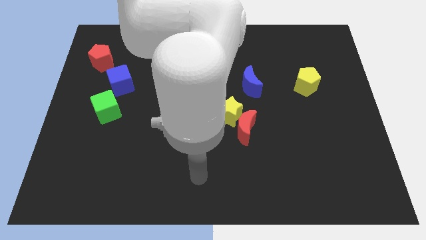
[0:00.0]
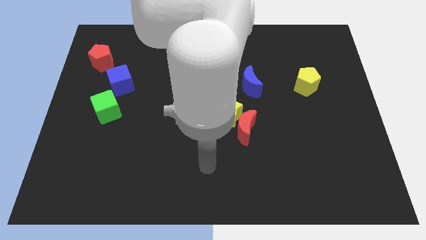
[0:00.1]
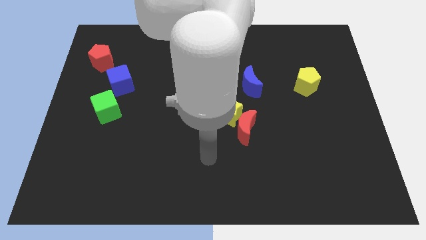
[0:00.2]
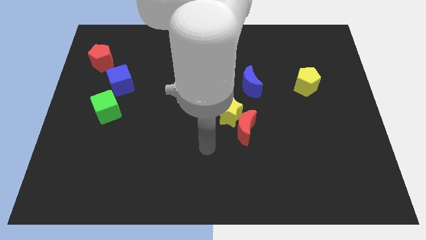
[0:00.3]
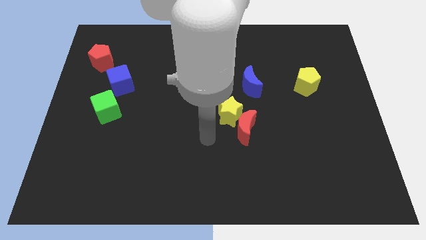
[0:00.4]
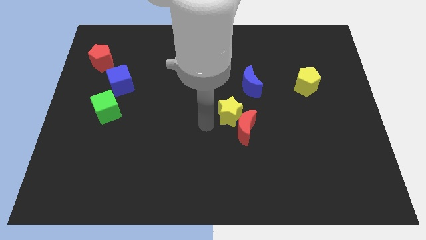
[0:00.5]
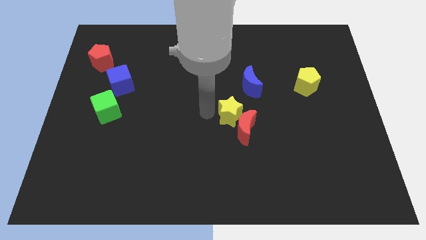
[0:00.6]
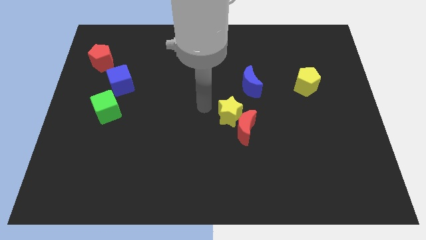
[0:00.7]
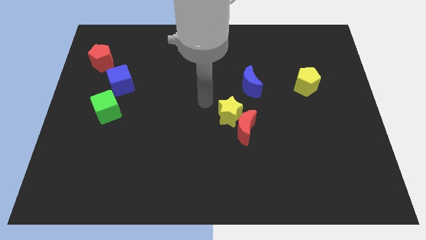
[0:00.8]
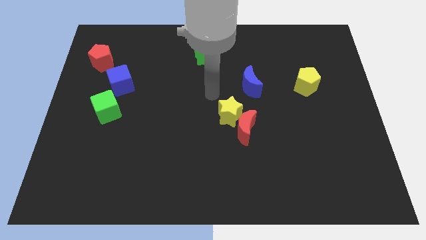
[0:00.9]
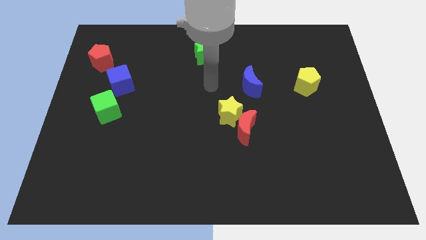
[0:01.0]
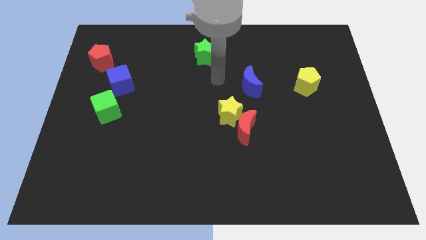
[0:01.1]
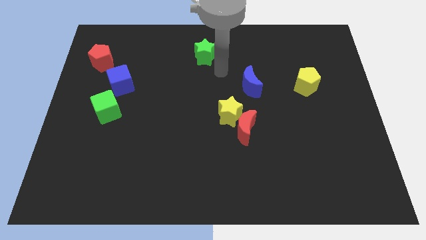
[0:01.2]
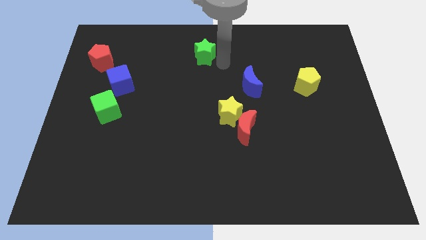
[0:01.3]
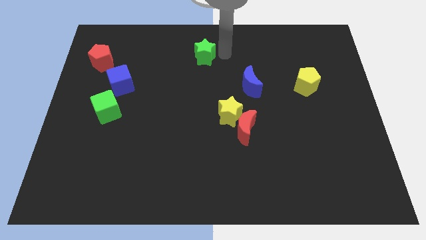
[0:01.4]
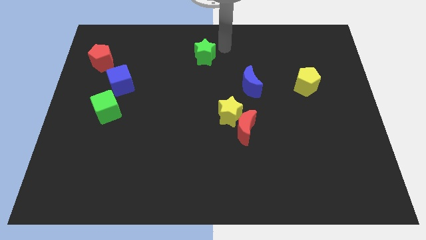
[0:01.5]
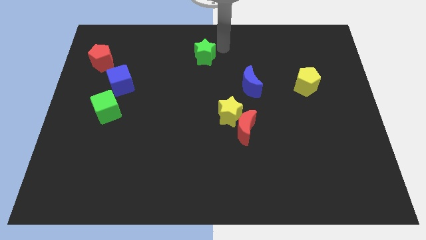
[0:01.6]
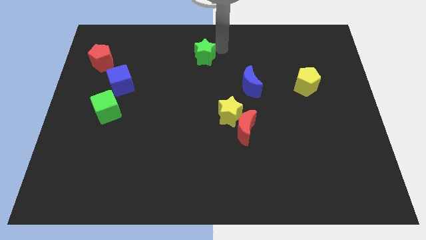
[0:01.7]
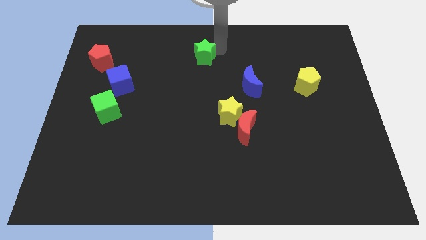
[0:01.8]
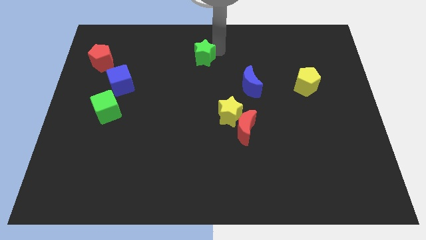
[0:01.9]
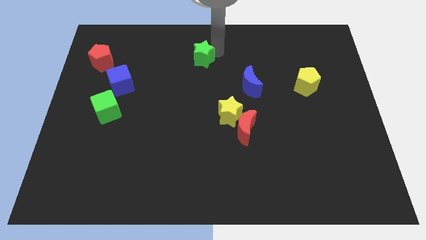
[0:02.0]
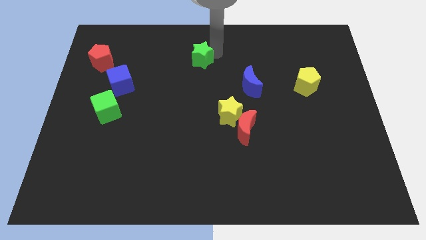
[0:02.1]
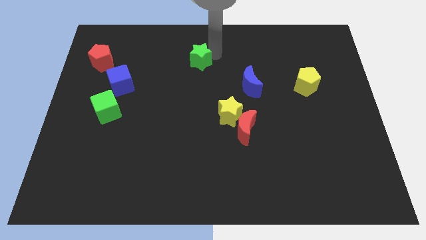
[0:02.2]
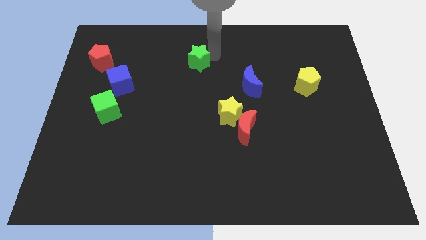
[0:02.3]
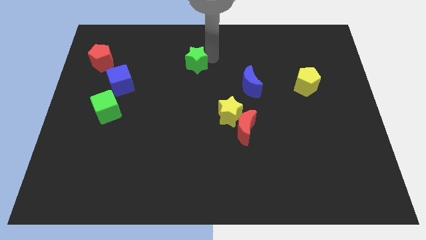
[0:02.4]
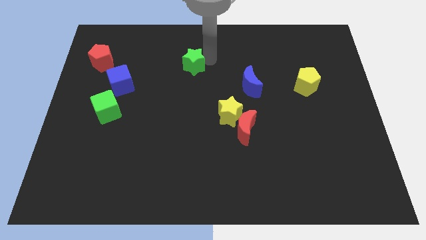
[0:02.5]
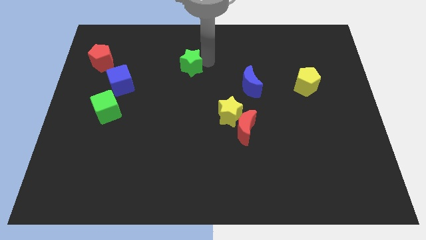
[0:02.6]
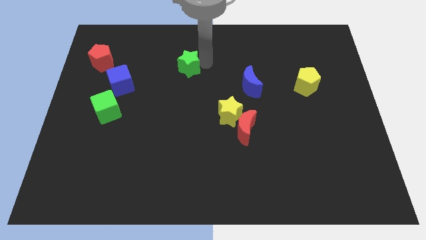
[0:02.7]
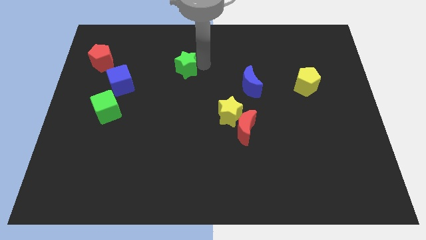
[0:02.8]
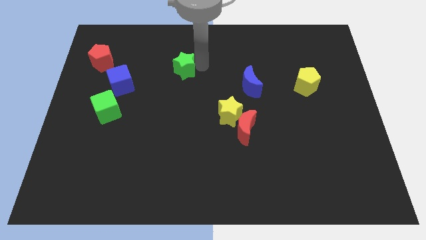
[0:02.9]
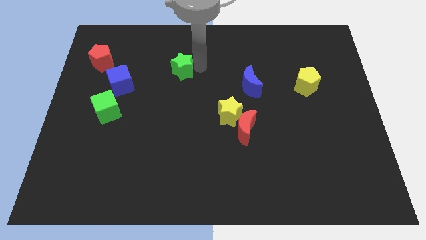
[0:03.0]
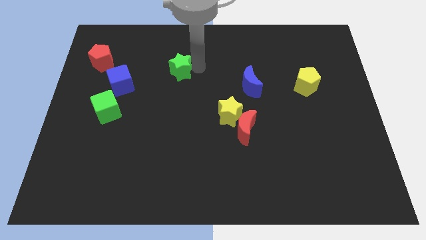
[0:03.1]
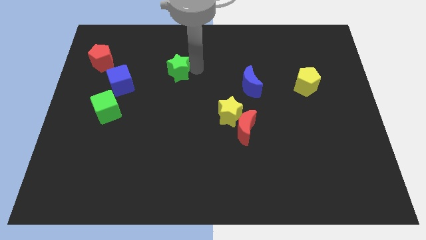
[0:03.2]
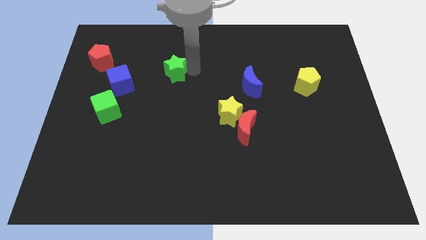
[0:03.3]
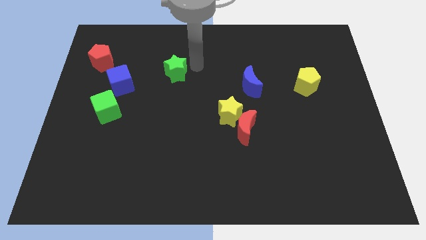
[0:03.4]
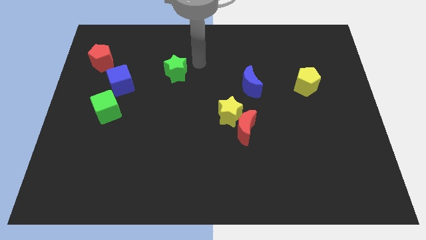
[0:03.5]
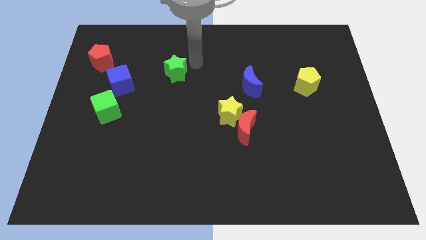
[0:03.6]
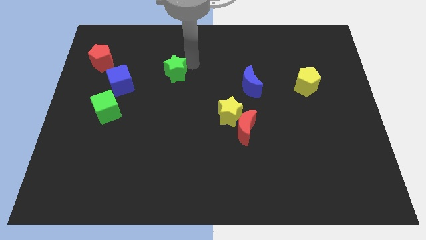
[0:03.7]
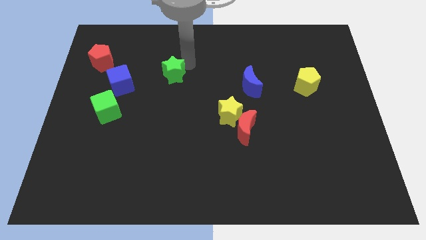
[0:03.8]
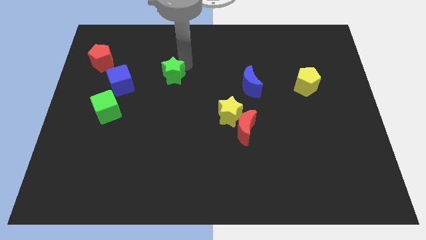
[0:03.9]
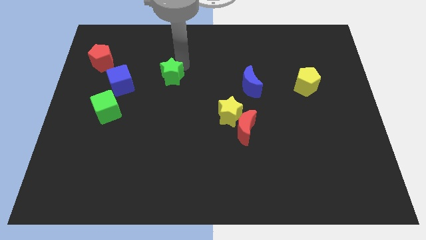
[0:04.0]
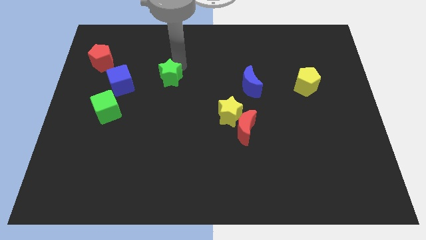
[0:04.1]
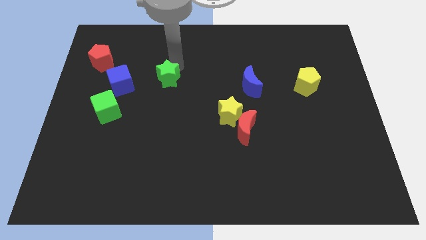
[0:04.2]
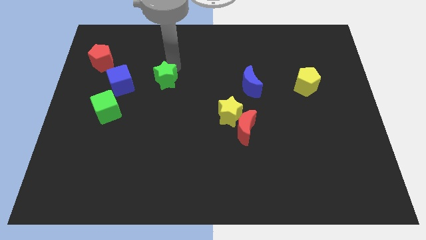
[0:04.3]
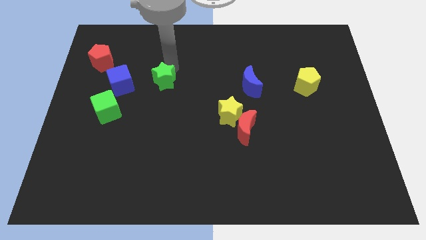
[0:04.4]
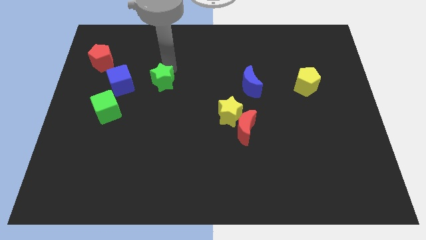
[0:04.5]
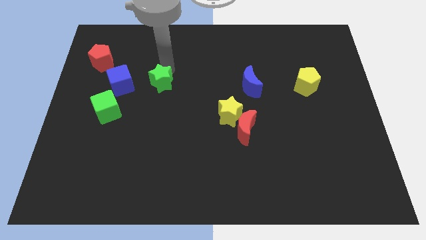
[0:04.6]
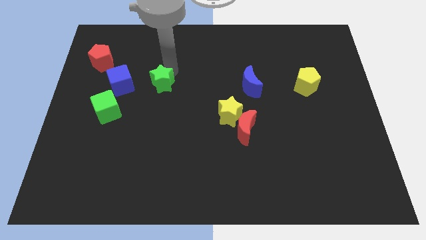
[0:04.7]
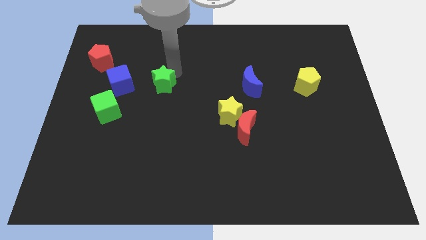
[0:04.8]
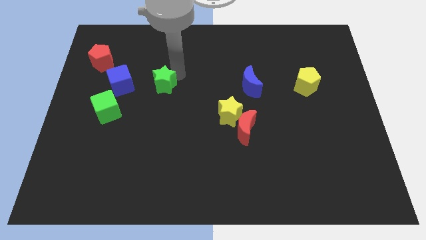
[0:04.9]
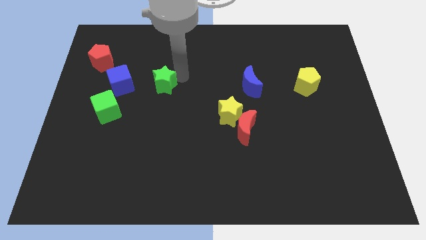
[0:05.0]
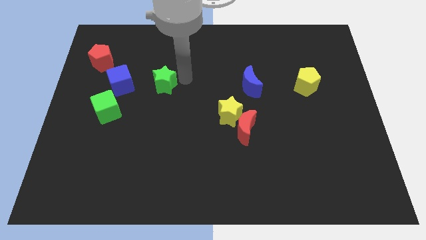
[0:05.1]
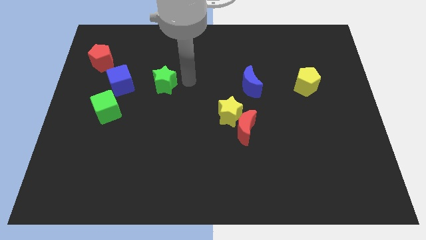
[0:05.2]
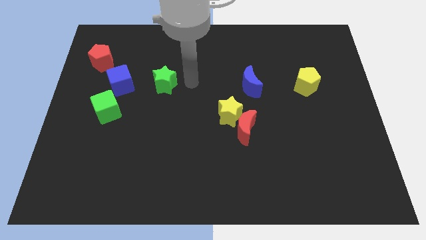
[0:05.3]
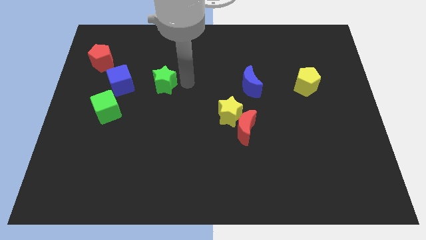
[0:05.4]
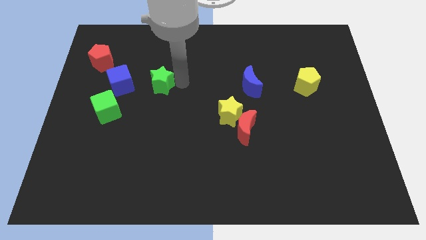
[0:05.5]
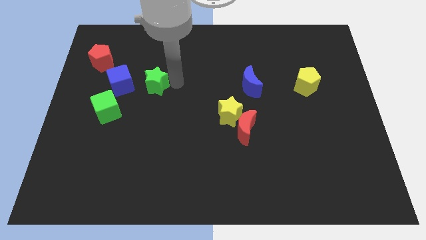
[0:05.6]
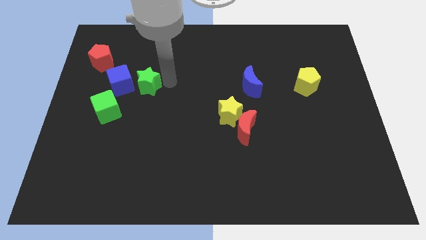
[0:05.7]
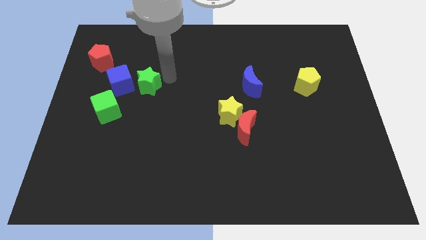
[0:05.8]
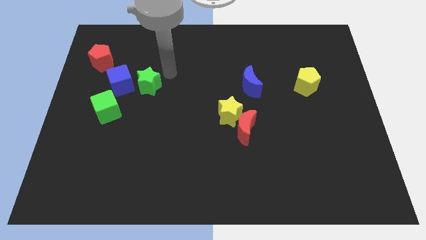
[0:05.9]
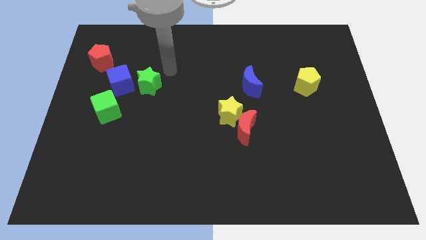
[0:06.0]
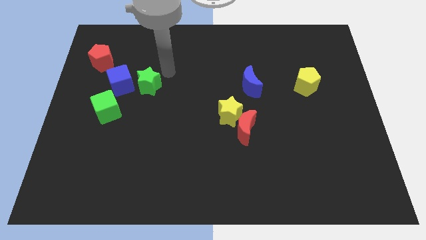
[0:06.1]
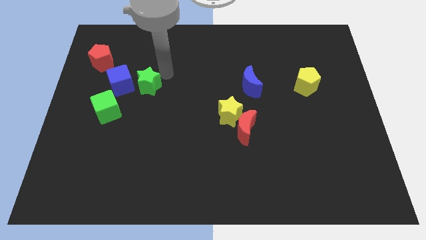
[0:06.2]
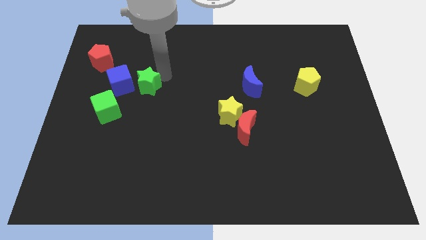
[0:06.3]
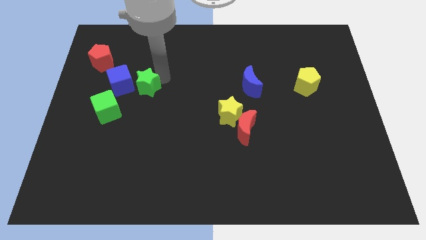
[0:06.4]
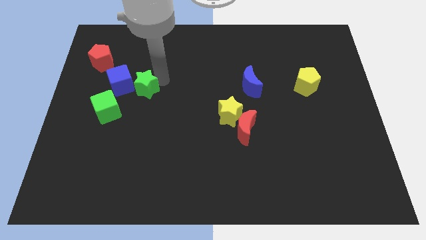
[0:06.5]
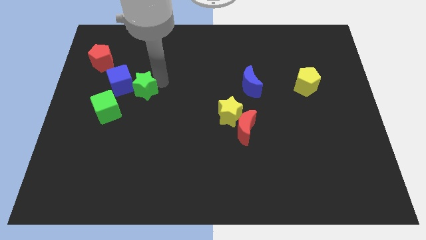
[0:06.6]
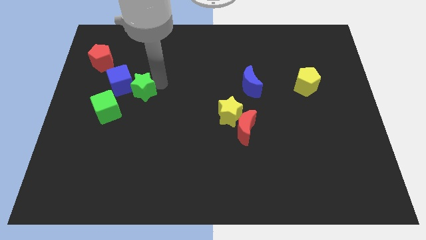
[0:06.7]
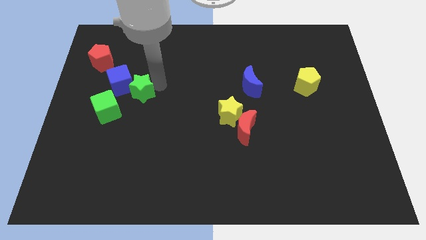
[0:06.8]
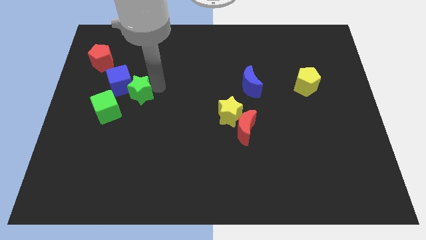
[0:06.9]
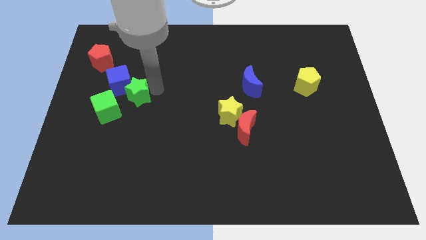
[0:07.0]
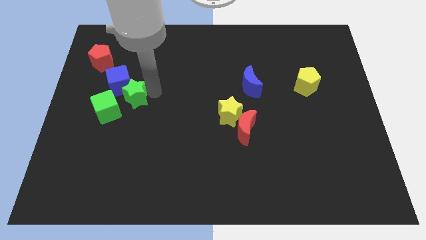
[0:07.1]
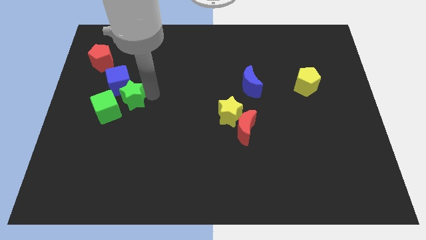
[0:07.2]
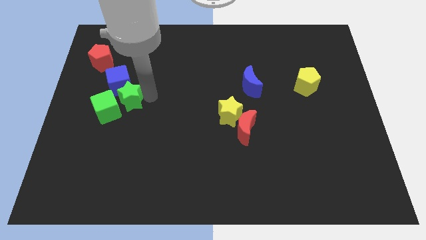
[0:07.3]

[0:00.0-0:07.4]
move the green star close to the green cube
